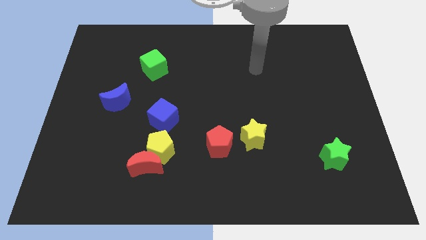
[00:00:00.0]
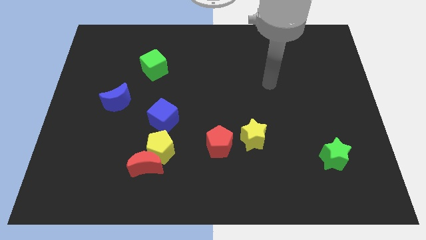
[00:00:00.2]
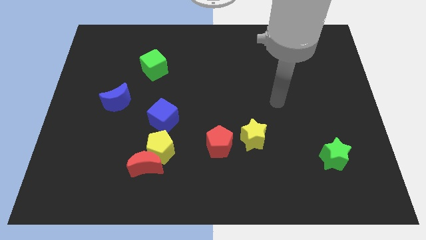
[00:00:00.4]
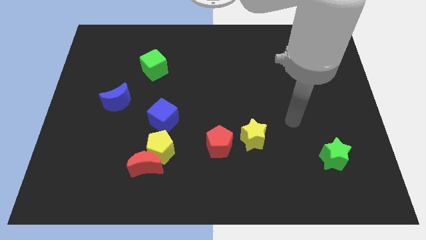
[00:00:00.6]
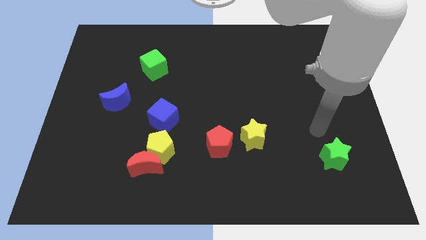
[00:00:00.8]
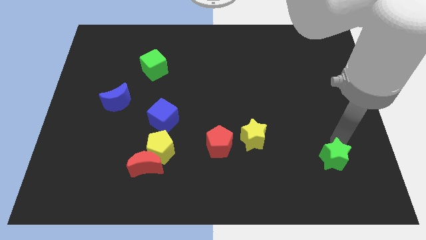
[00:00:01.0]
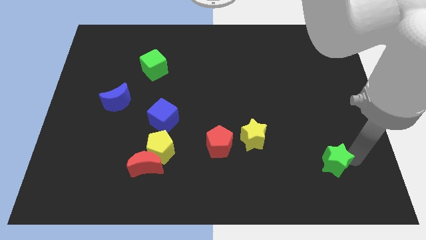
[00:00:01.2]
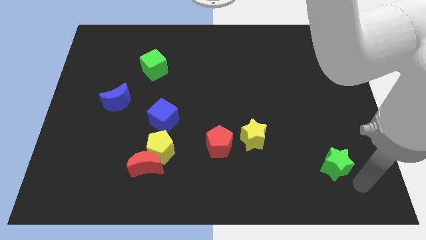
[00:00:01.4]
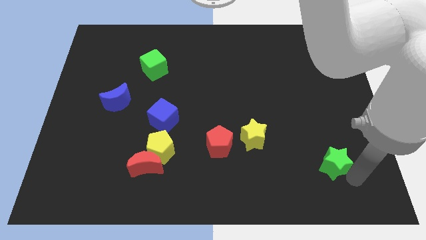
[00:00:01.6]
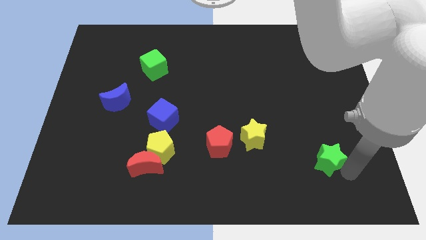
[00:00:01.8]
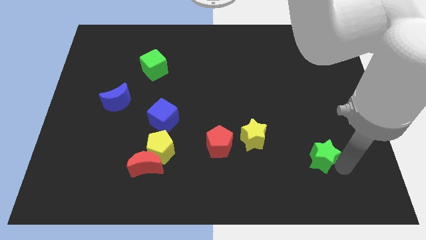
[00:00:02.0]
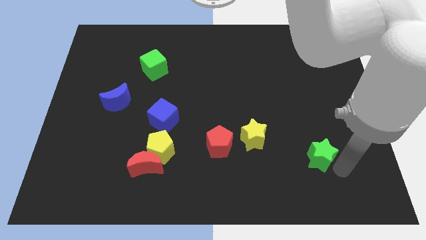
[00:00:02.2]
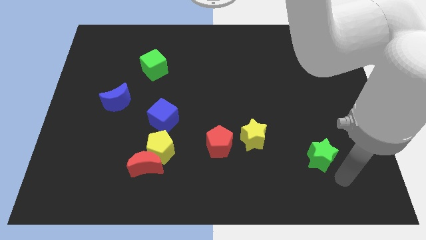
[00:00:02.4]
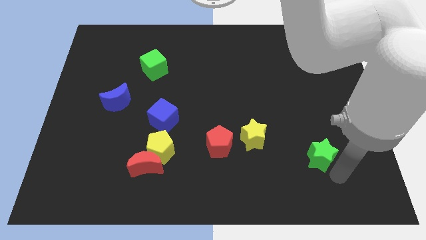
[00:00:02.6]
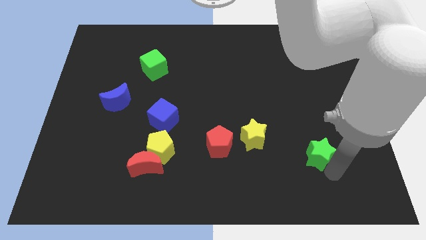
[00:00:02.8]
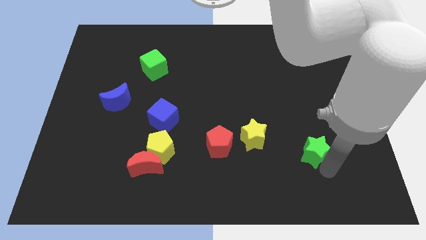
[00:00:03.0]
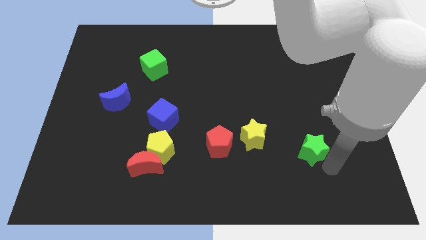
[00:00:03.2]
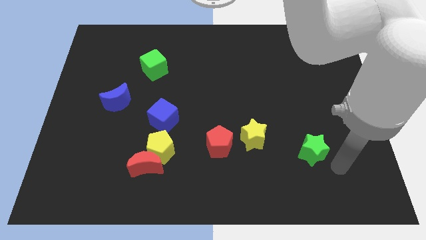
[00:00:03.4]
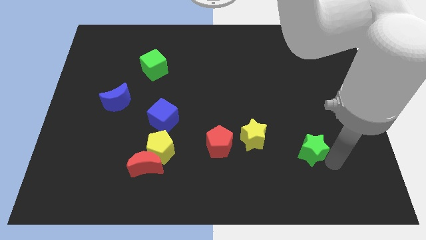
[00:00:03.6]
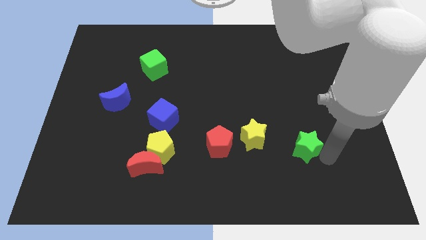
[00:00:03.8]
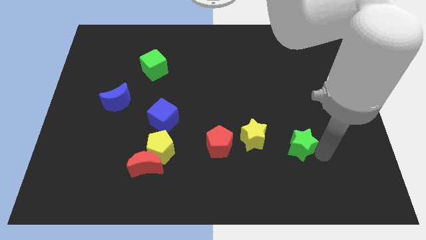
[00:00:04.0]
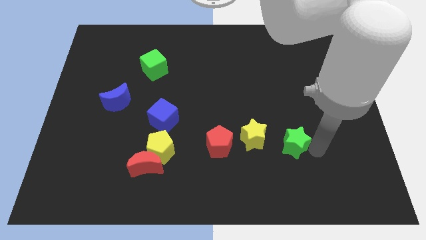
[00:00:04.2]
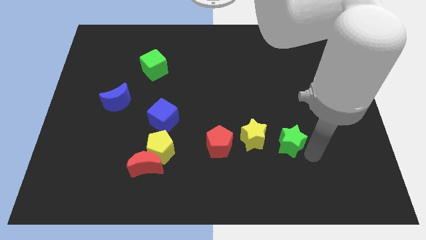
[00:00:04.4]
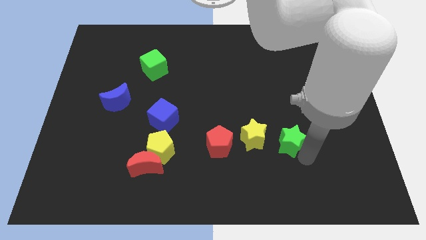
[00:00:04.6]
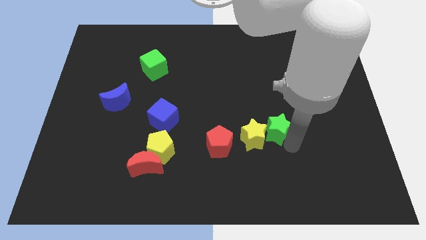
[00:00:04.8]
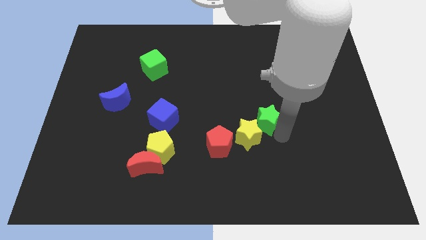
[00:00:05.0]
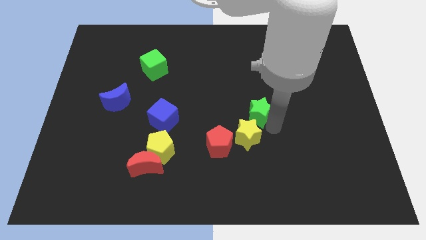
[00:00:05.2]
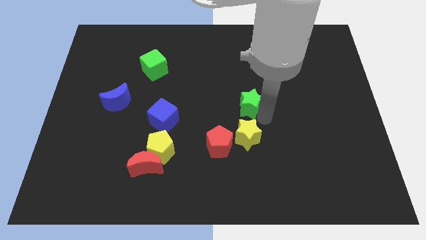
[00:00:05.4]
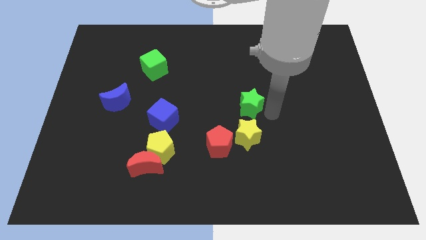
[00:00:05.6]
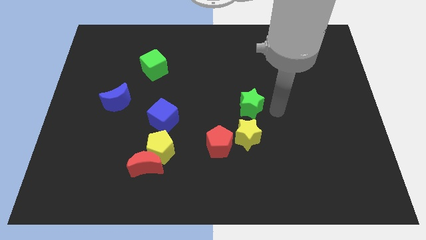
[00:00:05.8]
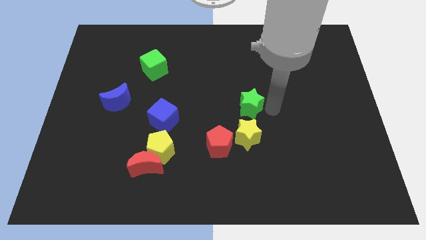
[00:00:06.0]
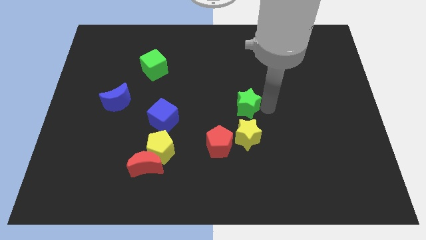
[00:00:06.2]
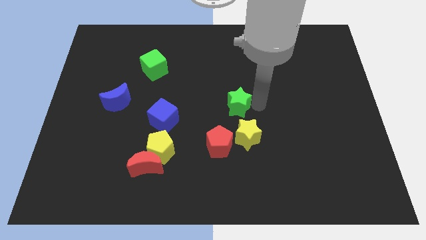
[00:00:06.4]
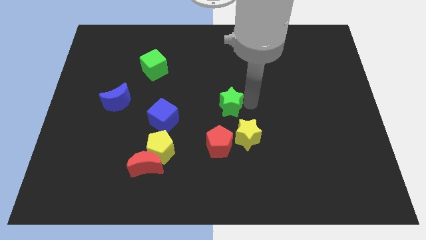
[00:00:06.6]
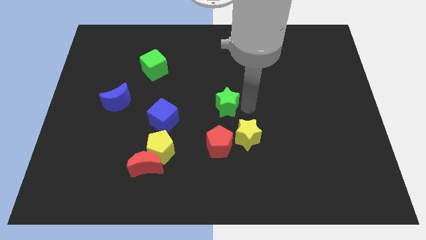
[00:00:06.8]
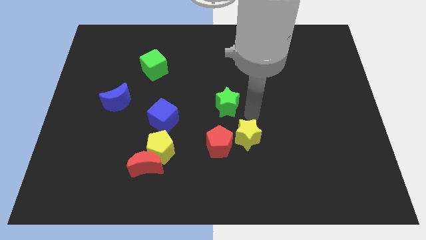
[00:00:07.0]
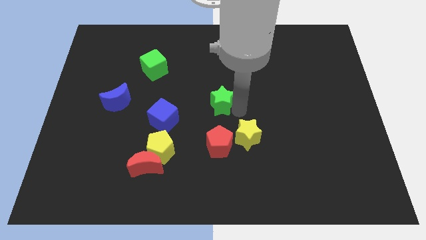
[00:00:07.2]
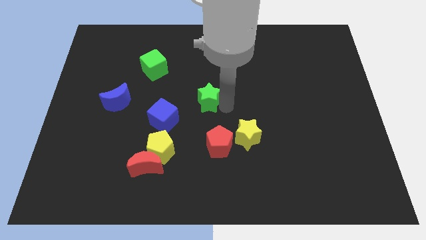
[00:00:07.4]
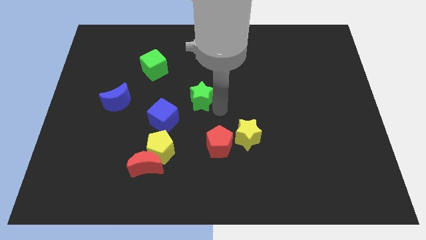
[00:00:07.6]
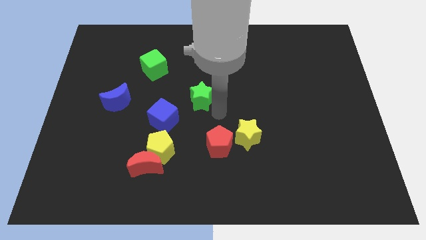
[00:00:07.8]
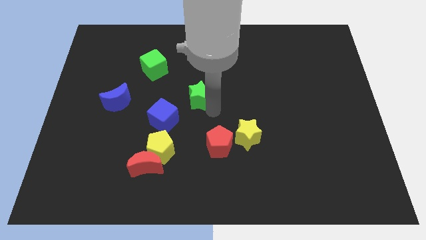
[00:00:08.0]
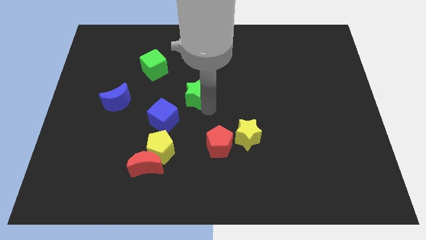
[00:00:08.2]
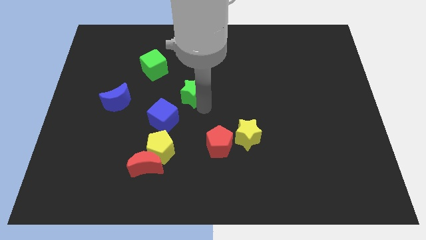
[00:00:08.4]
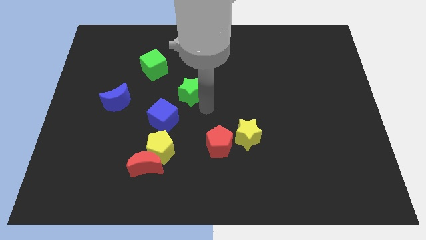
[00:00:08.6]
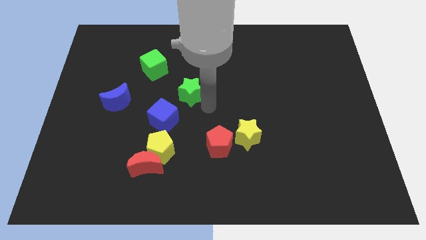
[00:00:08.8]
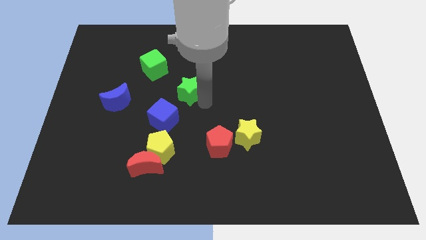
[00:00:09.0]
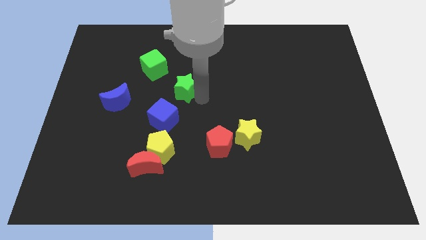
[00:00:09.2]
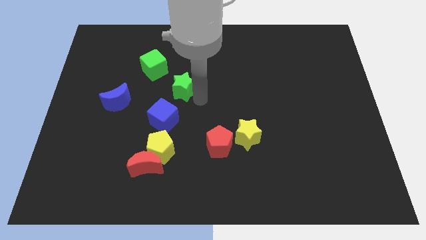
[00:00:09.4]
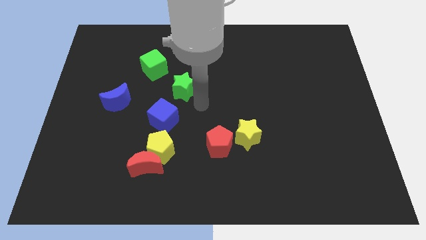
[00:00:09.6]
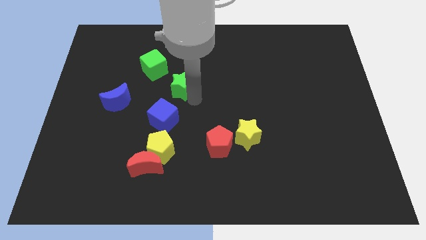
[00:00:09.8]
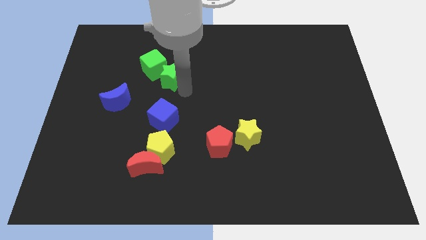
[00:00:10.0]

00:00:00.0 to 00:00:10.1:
push the green star towards the green cube

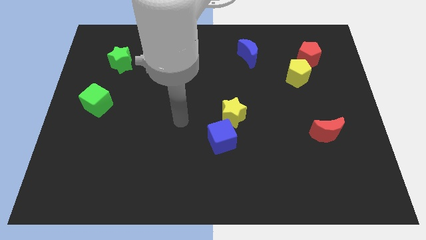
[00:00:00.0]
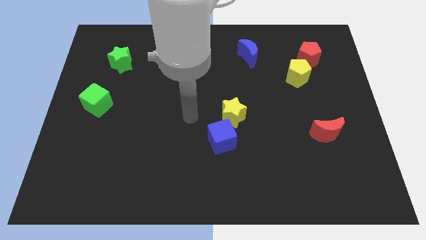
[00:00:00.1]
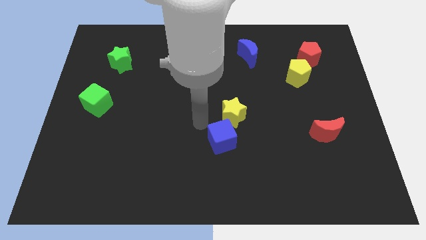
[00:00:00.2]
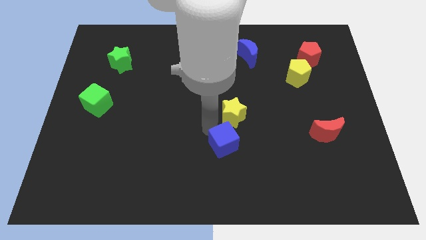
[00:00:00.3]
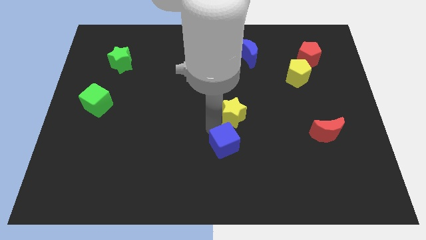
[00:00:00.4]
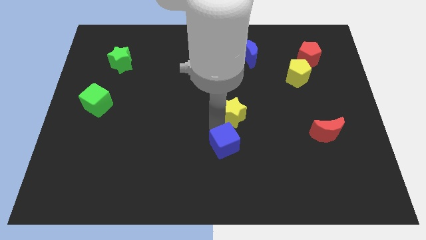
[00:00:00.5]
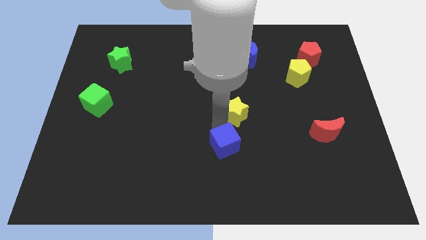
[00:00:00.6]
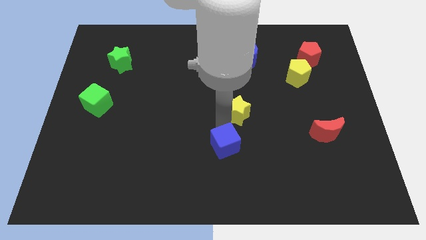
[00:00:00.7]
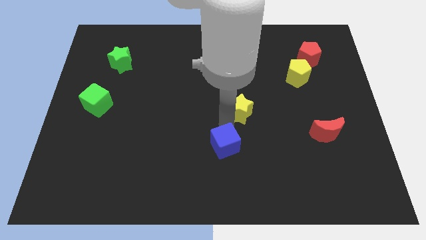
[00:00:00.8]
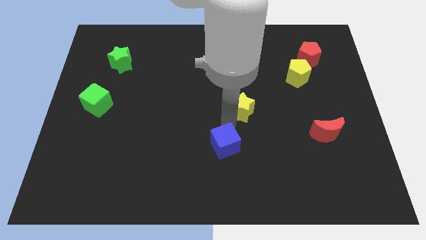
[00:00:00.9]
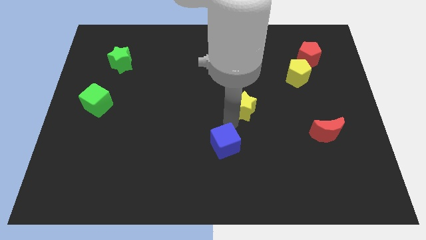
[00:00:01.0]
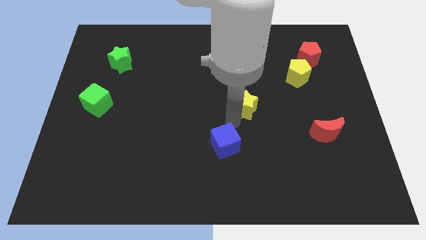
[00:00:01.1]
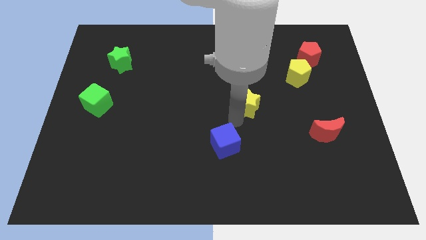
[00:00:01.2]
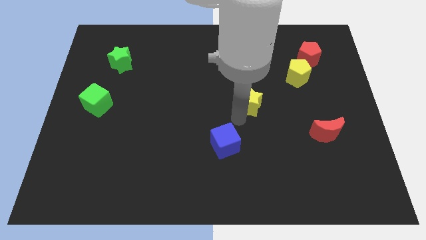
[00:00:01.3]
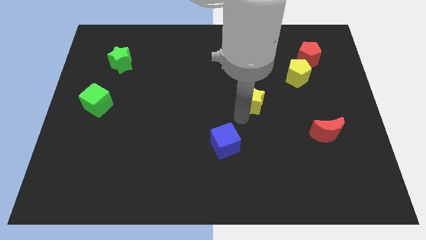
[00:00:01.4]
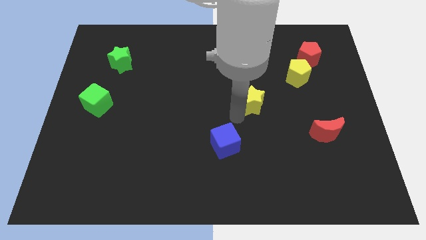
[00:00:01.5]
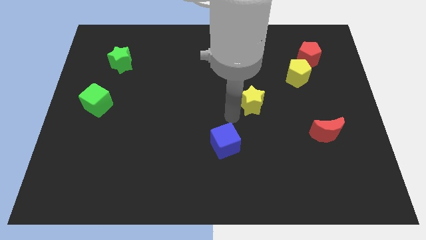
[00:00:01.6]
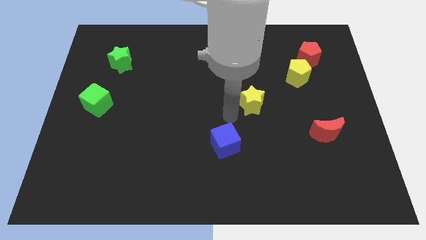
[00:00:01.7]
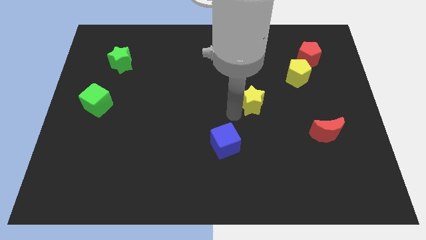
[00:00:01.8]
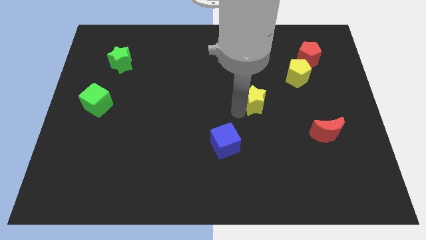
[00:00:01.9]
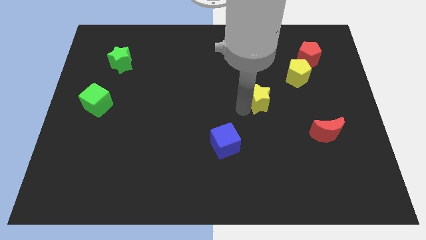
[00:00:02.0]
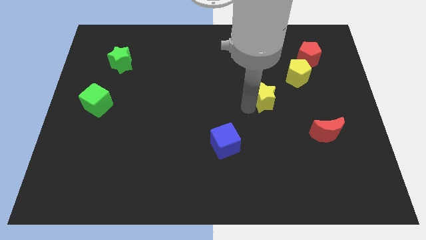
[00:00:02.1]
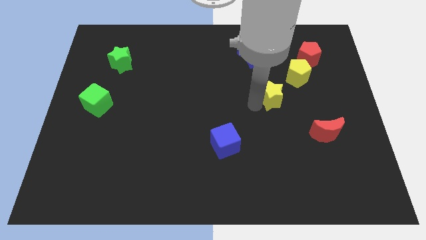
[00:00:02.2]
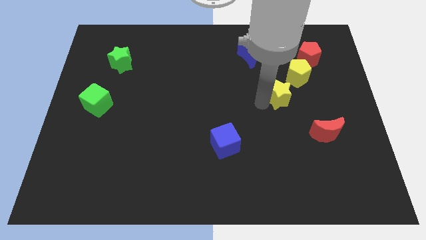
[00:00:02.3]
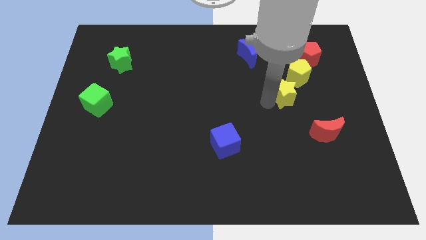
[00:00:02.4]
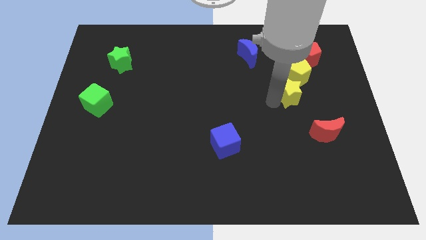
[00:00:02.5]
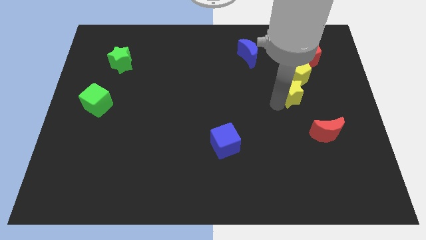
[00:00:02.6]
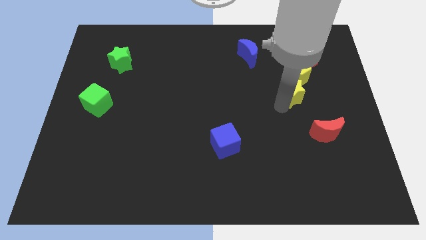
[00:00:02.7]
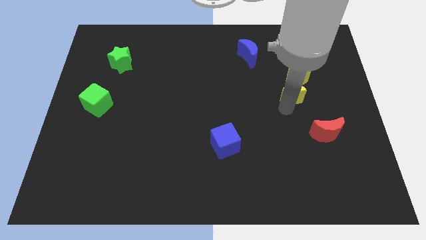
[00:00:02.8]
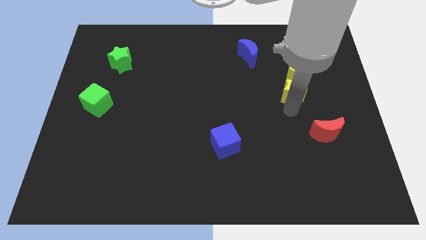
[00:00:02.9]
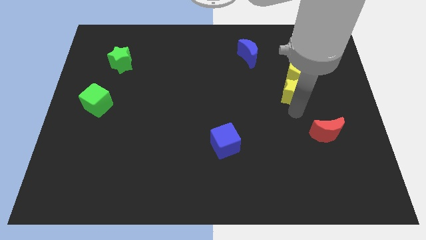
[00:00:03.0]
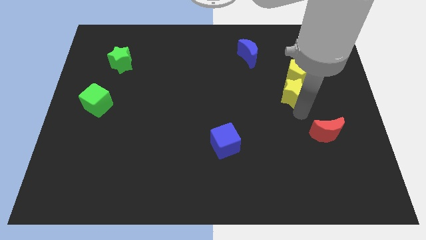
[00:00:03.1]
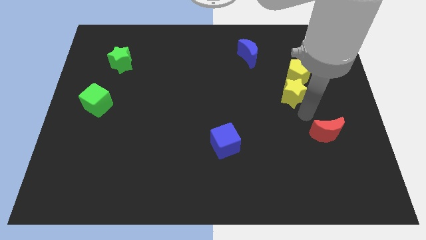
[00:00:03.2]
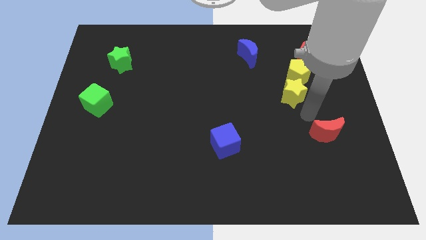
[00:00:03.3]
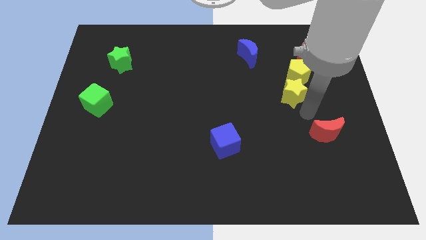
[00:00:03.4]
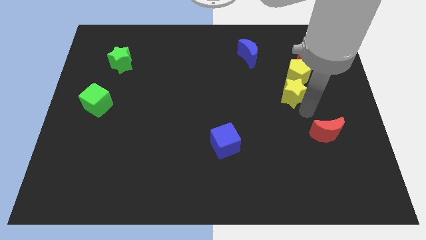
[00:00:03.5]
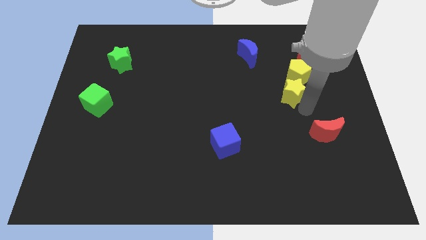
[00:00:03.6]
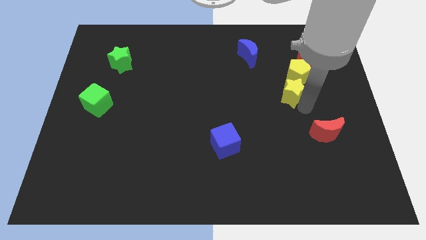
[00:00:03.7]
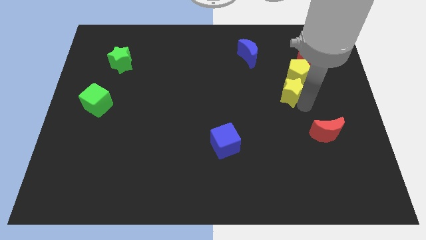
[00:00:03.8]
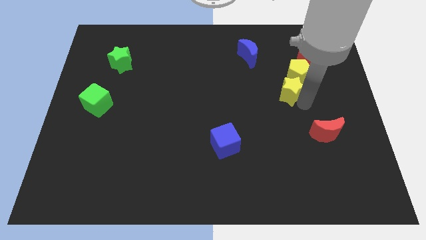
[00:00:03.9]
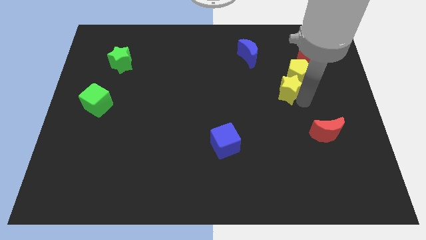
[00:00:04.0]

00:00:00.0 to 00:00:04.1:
put the yellow star towards the yellow pentagon
